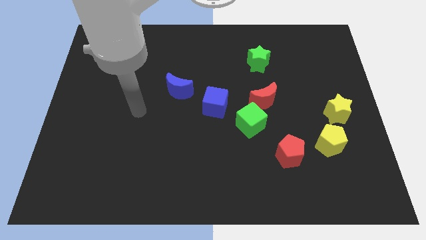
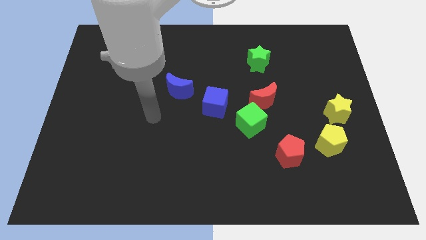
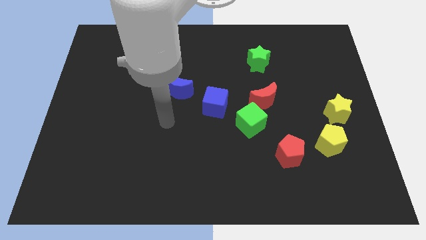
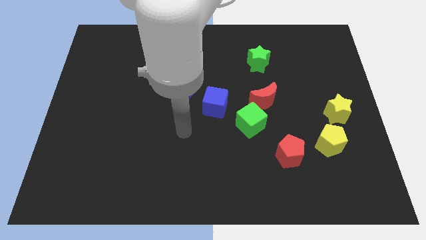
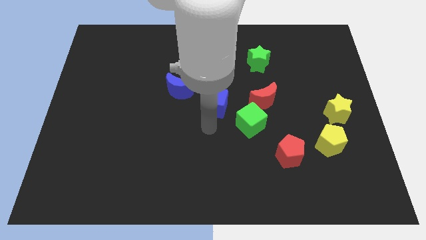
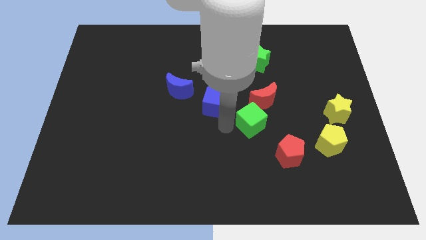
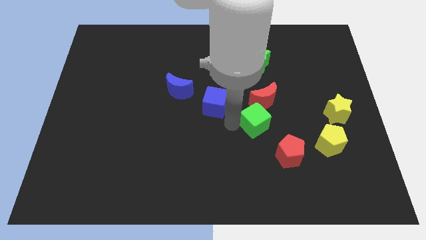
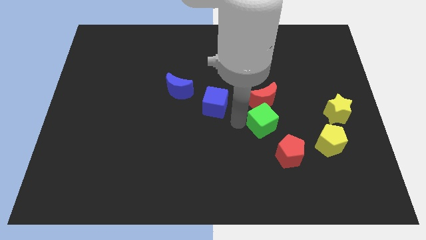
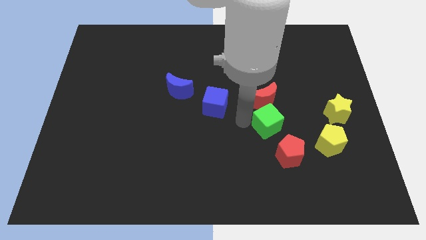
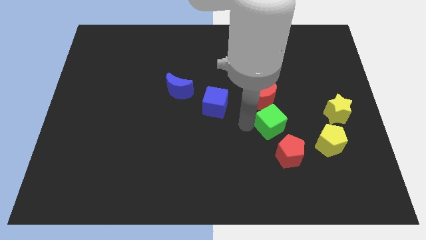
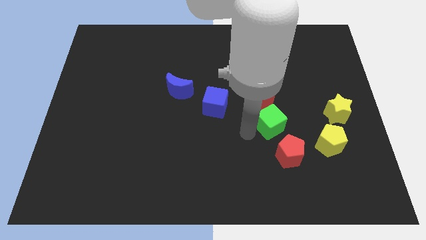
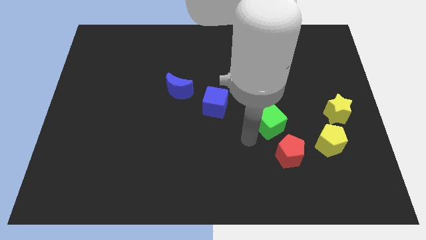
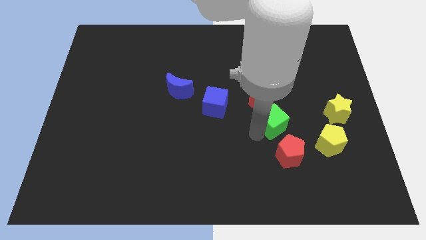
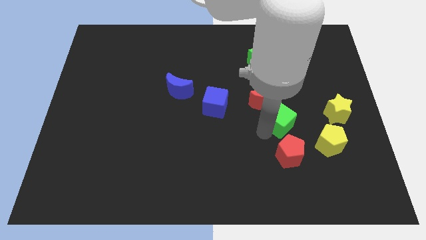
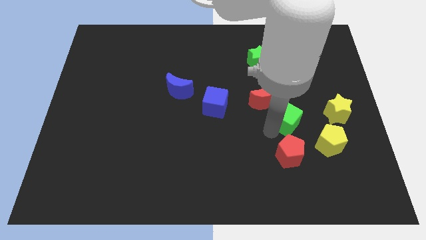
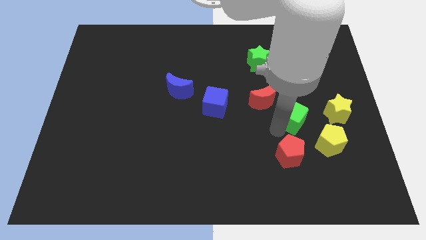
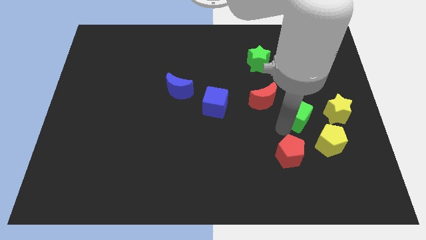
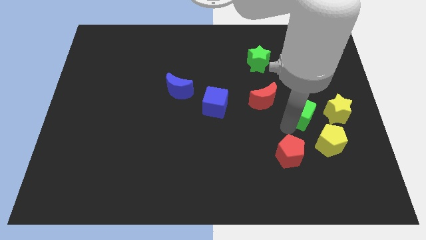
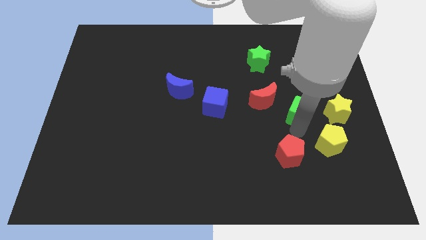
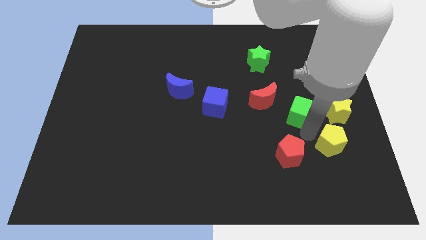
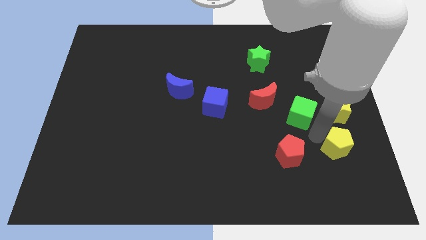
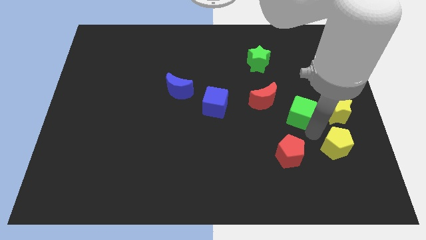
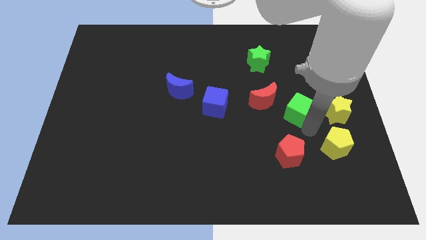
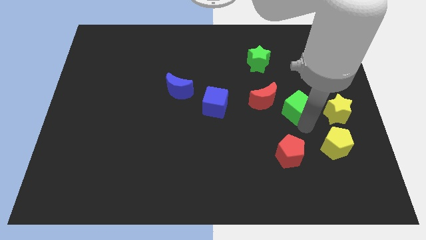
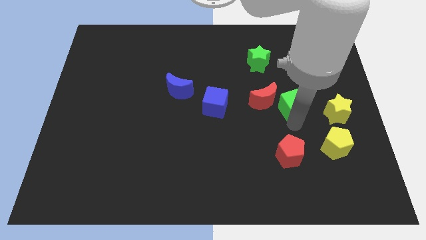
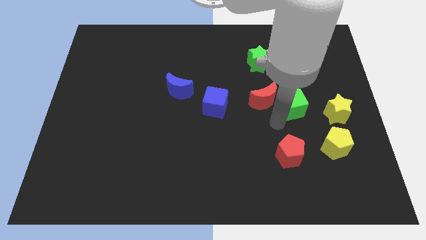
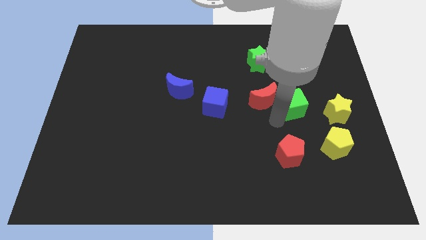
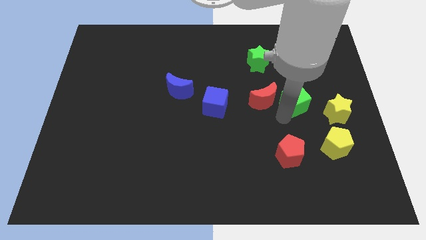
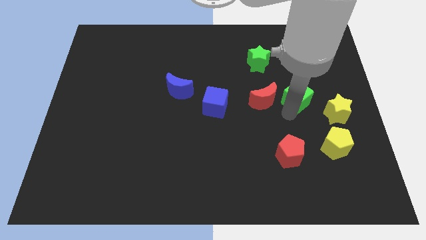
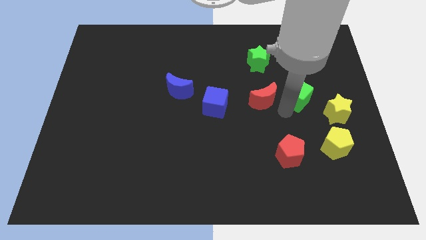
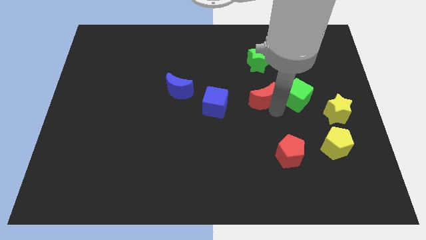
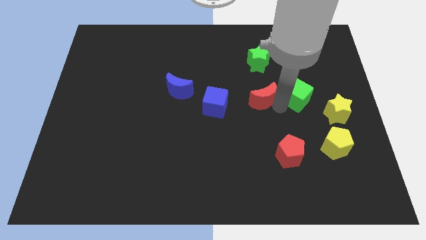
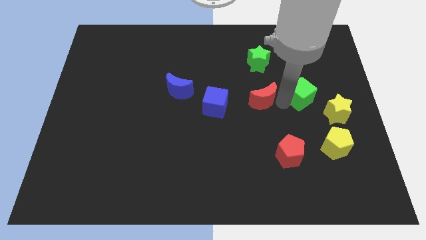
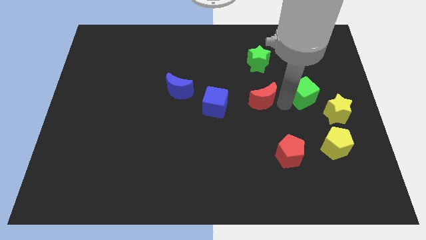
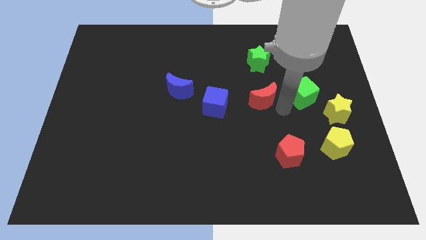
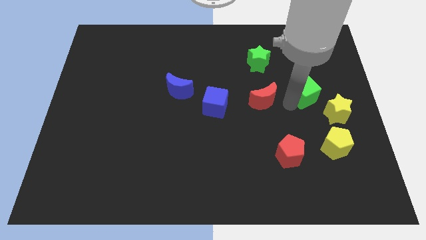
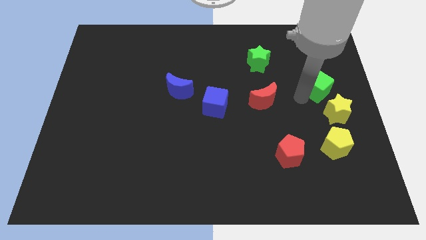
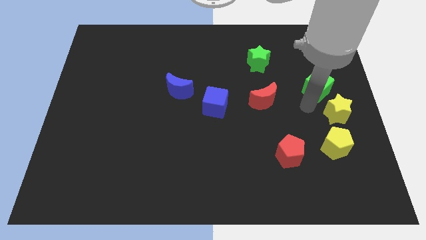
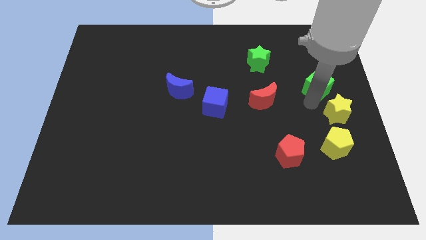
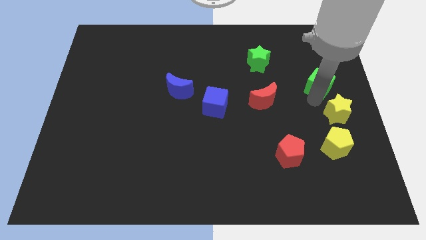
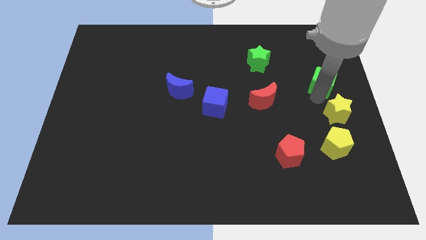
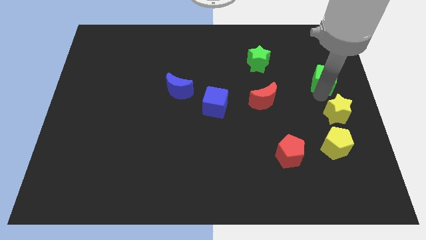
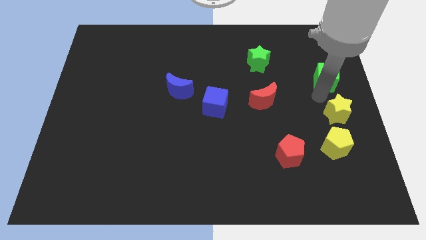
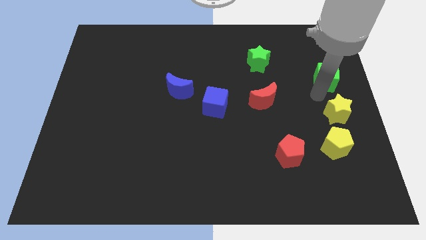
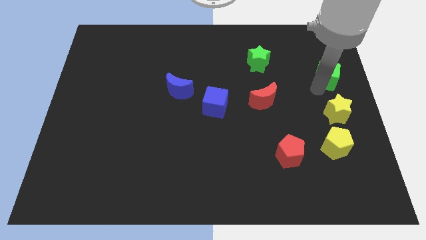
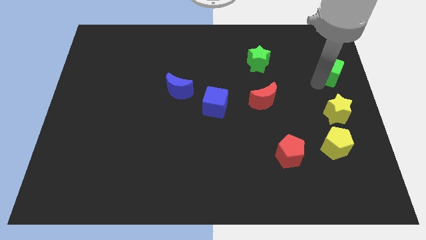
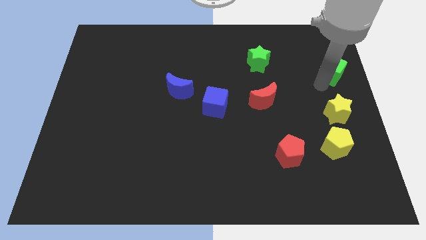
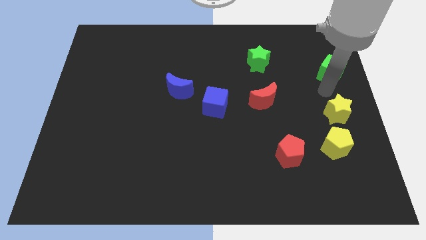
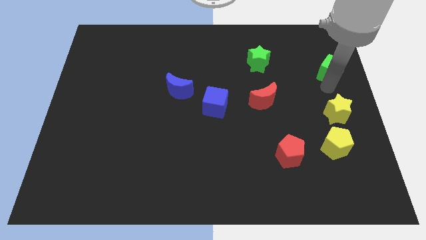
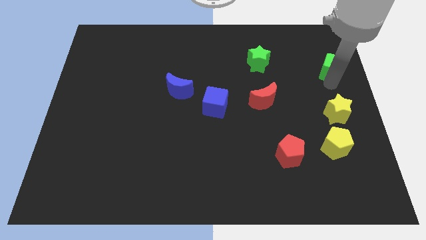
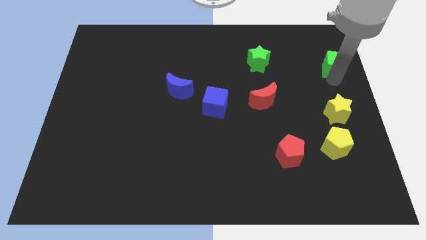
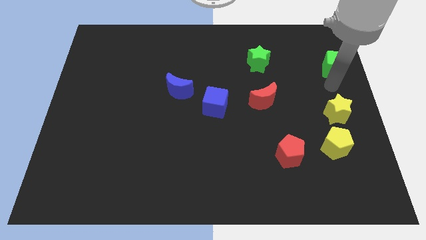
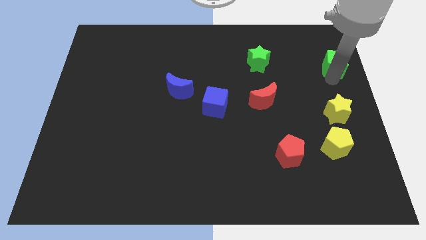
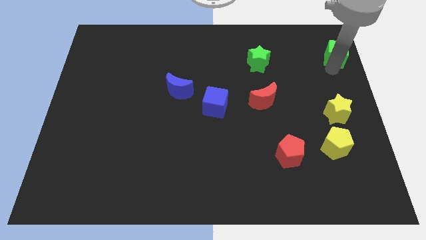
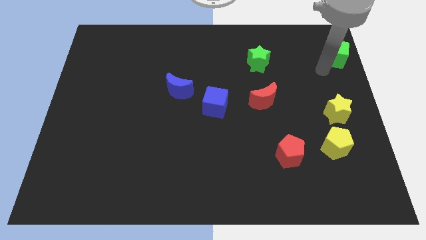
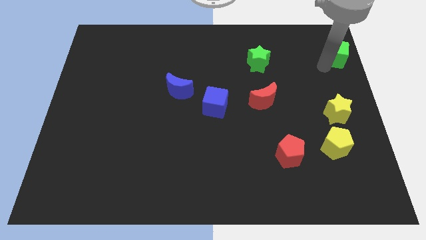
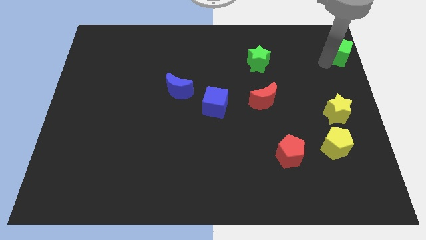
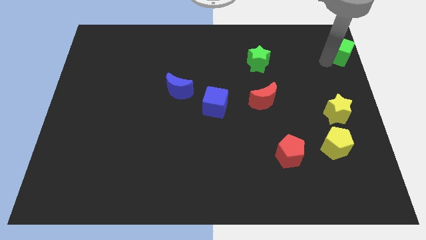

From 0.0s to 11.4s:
put the green cube to the top right of the board
